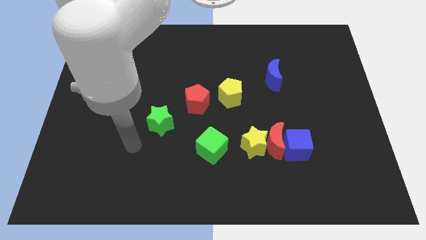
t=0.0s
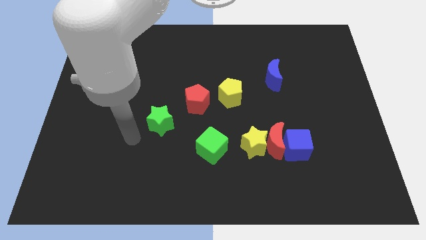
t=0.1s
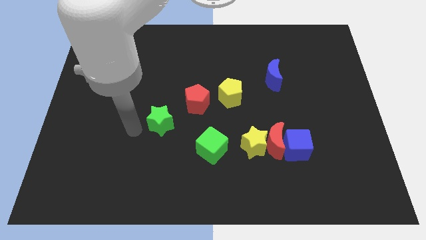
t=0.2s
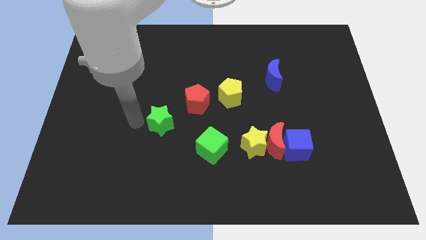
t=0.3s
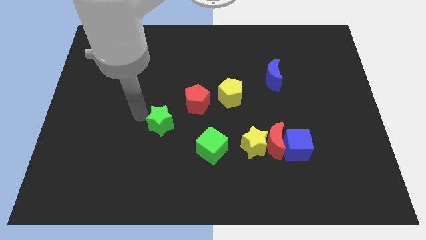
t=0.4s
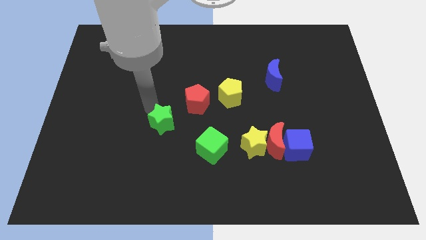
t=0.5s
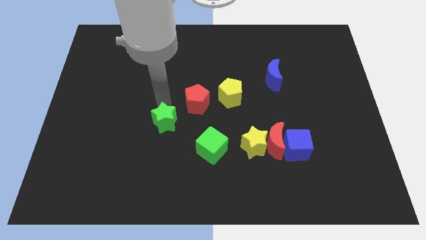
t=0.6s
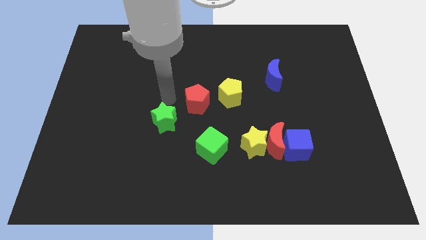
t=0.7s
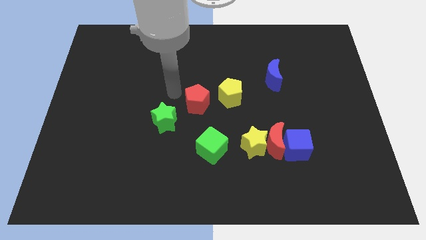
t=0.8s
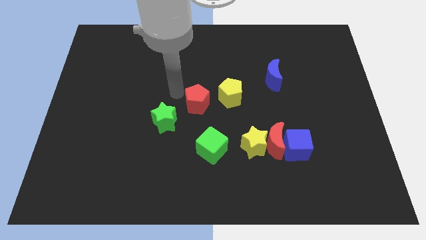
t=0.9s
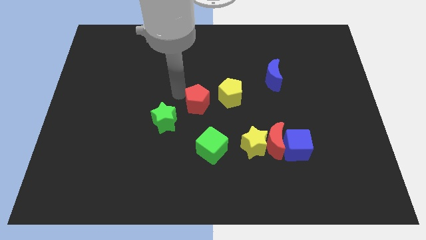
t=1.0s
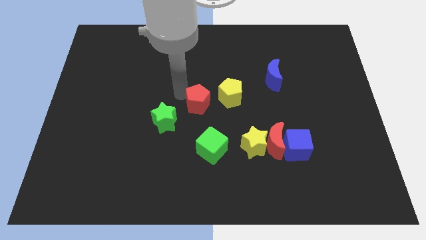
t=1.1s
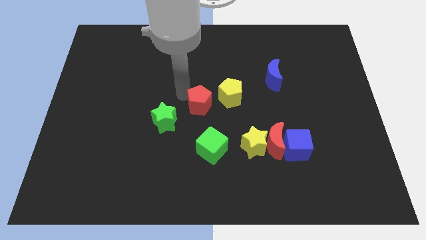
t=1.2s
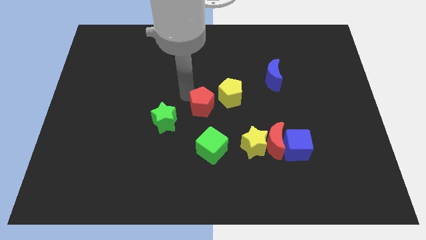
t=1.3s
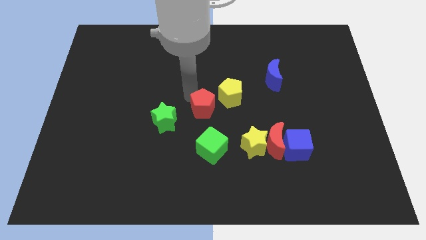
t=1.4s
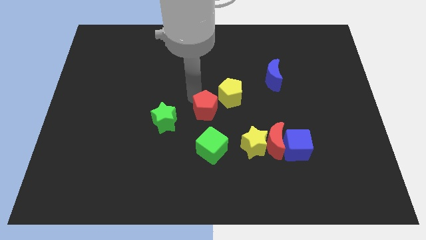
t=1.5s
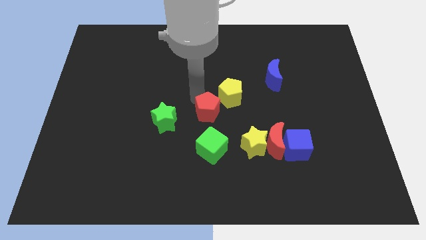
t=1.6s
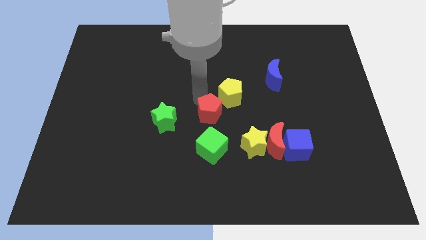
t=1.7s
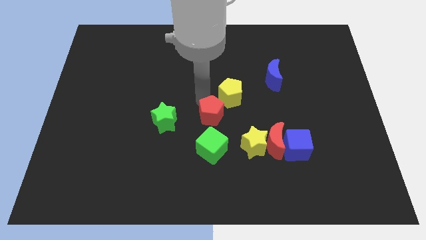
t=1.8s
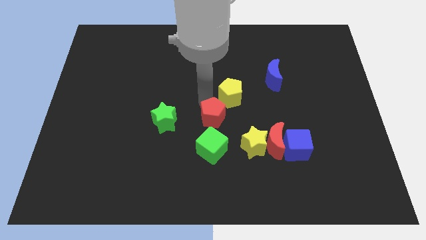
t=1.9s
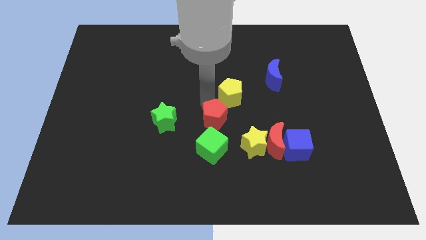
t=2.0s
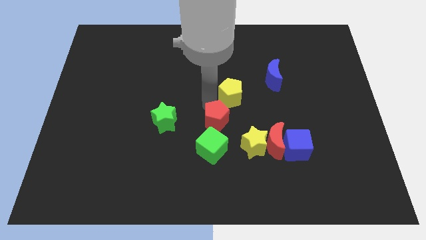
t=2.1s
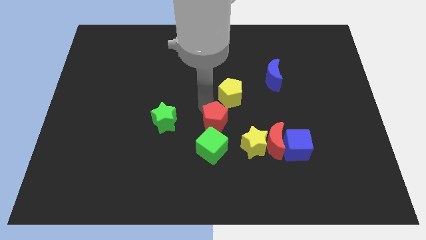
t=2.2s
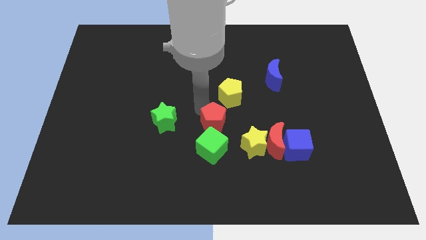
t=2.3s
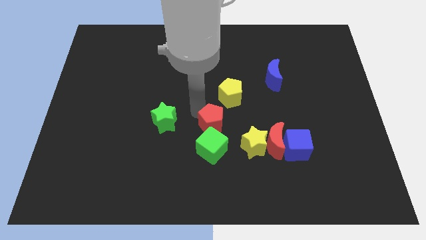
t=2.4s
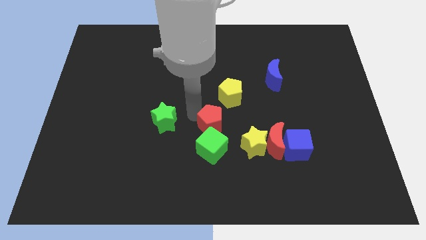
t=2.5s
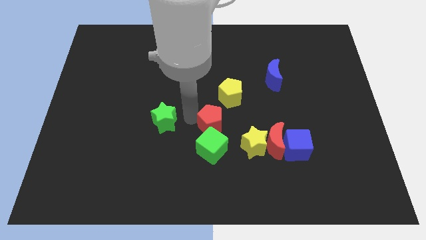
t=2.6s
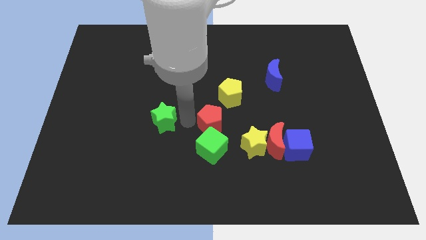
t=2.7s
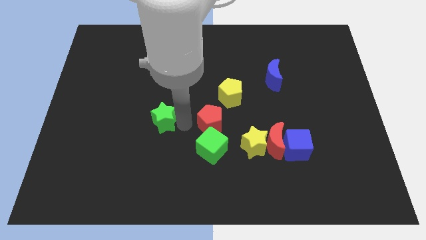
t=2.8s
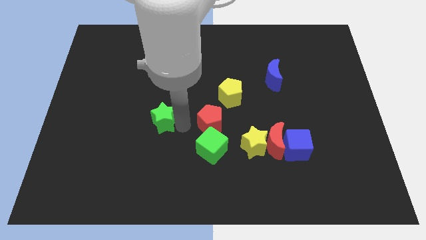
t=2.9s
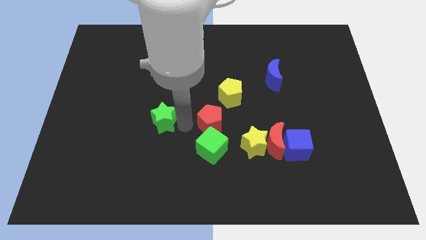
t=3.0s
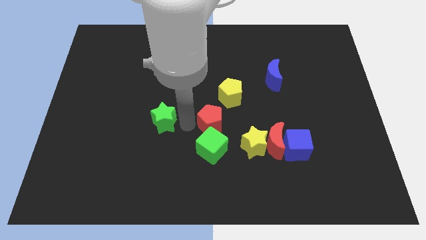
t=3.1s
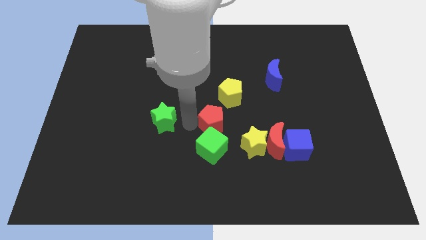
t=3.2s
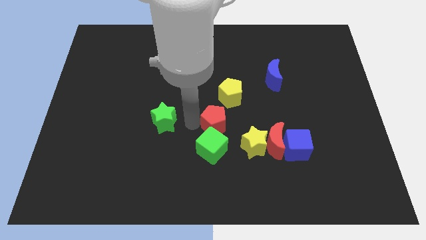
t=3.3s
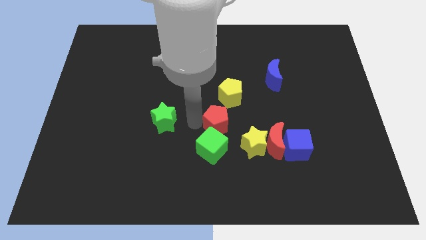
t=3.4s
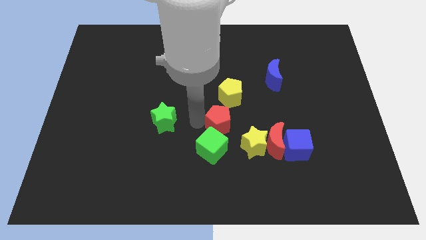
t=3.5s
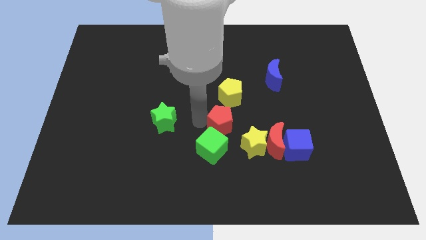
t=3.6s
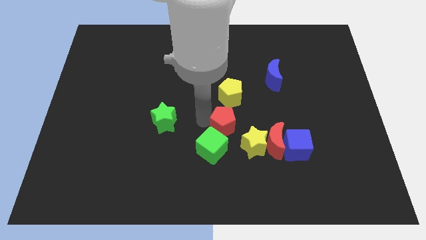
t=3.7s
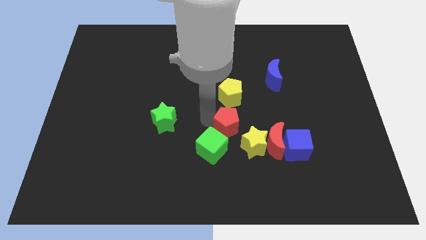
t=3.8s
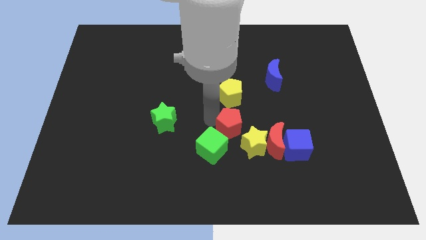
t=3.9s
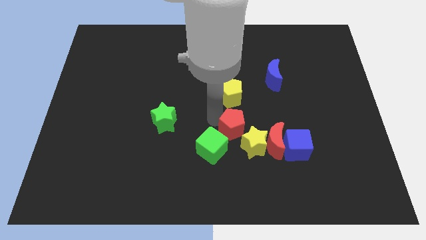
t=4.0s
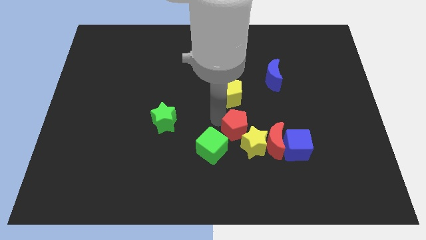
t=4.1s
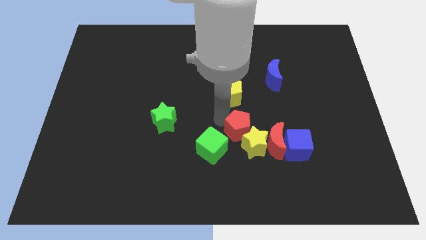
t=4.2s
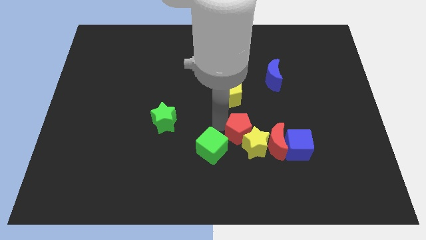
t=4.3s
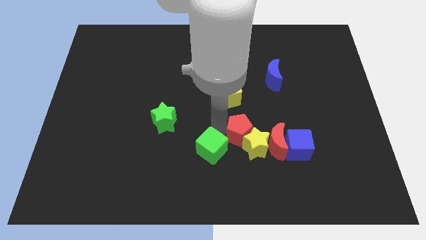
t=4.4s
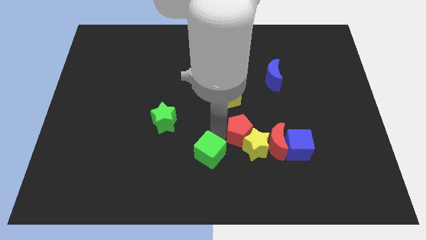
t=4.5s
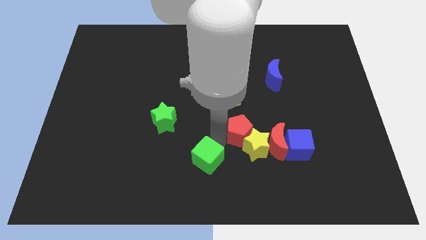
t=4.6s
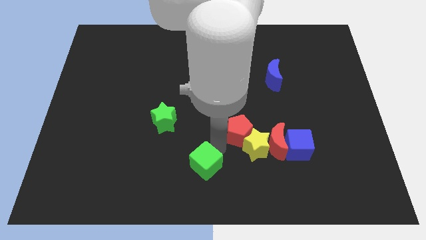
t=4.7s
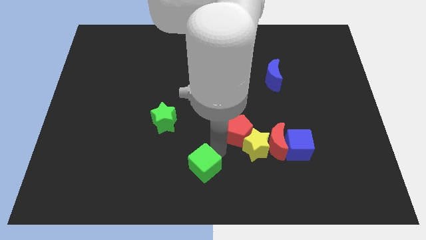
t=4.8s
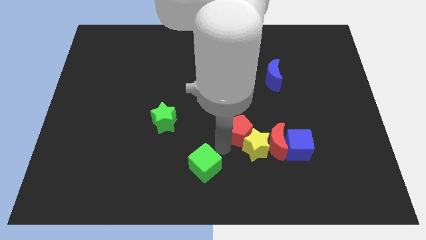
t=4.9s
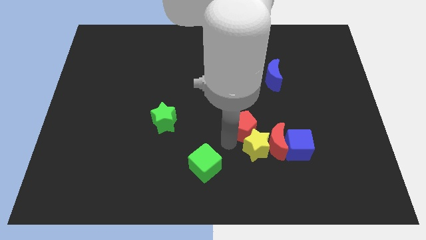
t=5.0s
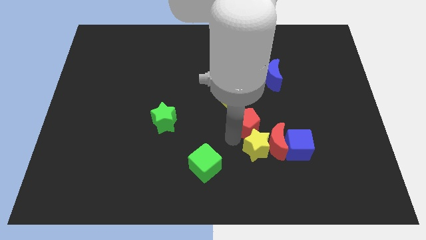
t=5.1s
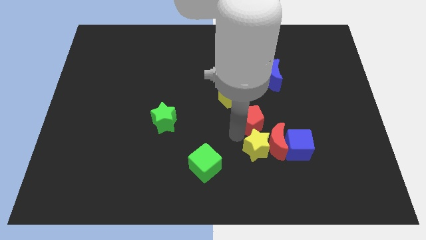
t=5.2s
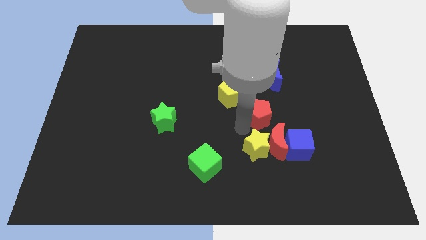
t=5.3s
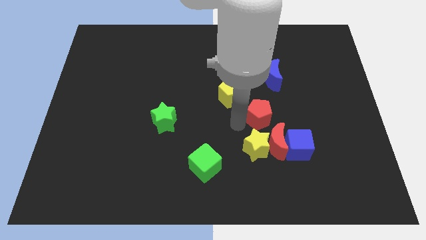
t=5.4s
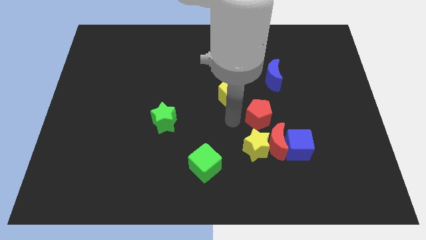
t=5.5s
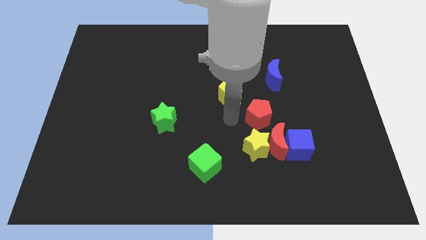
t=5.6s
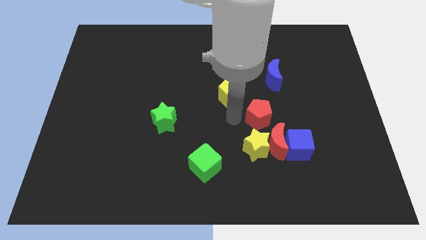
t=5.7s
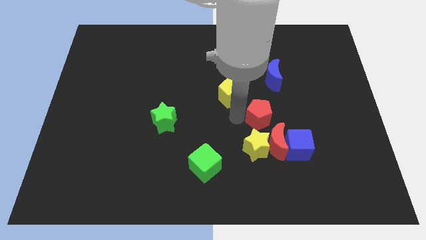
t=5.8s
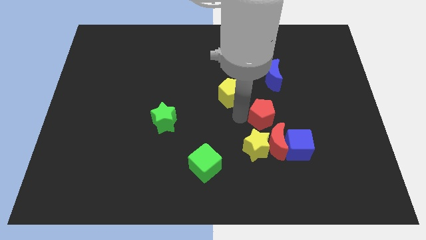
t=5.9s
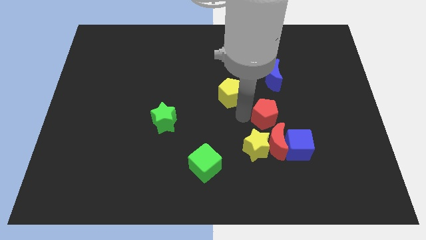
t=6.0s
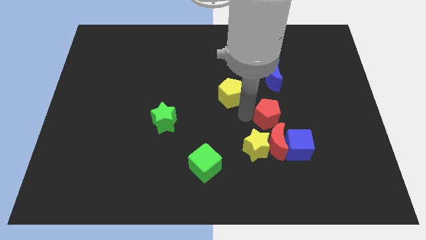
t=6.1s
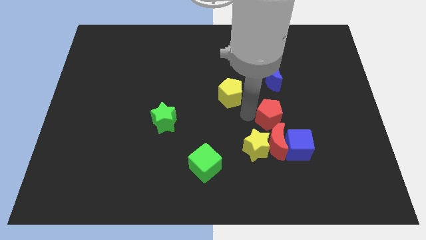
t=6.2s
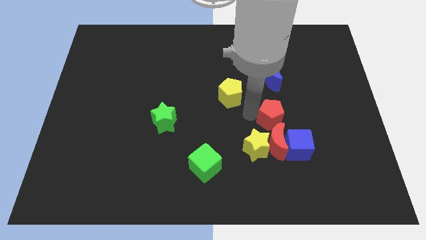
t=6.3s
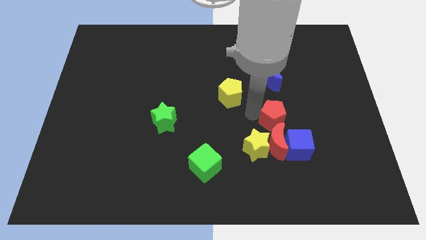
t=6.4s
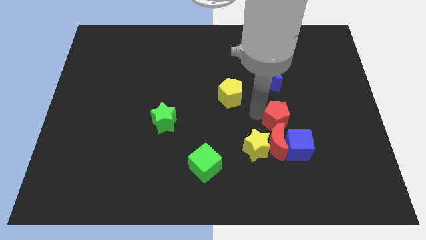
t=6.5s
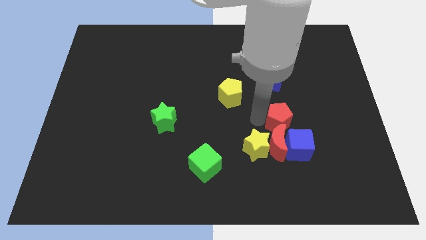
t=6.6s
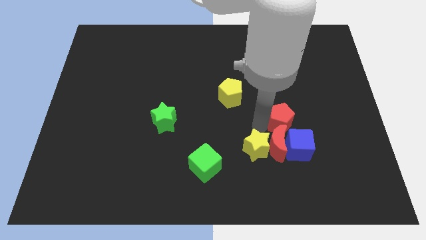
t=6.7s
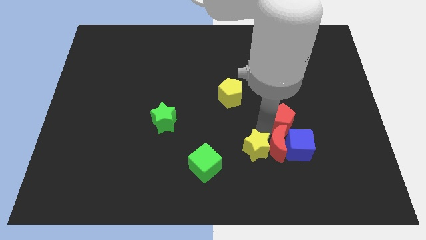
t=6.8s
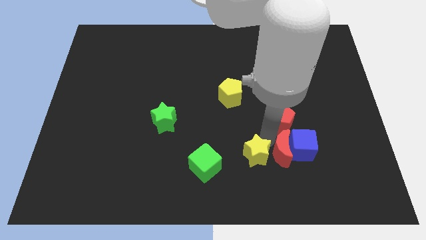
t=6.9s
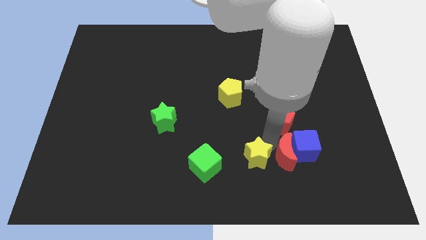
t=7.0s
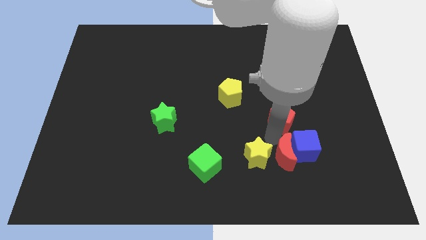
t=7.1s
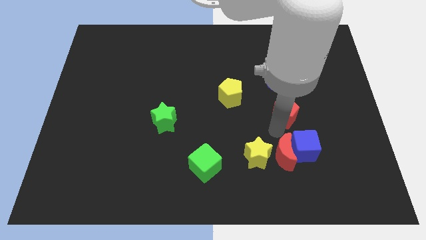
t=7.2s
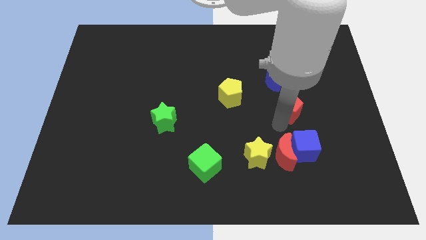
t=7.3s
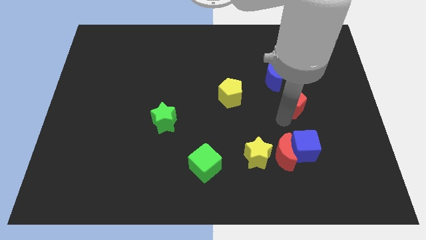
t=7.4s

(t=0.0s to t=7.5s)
put the red pentagon diagonally down and to the right of the blue moon
